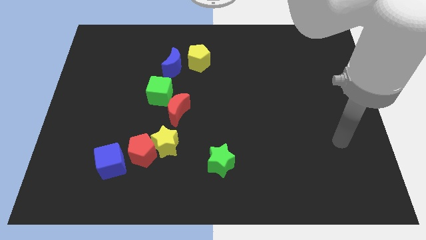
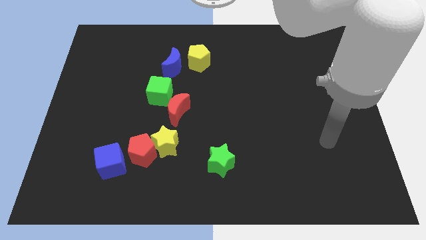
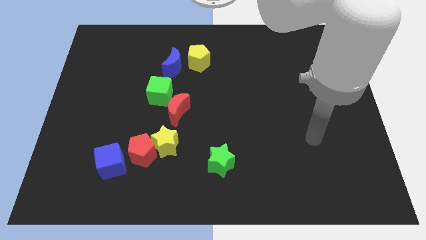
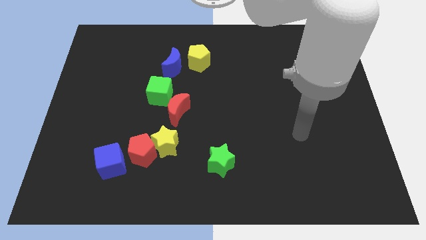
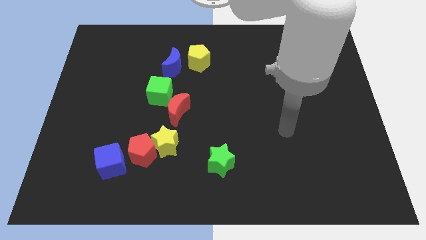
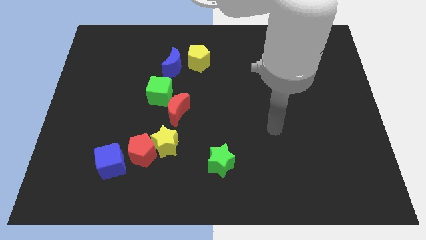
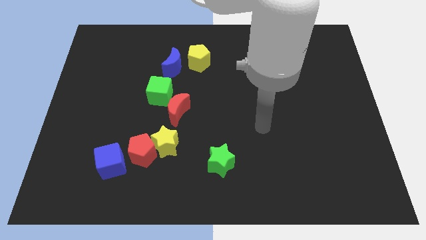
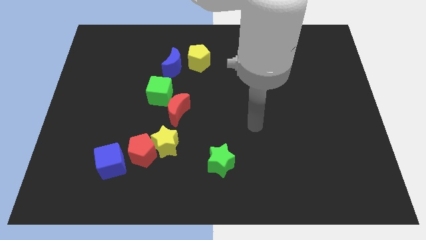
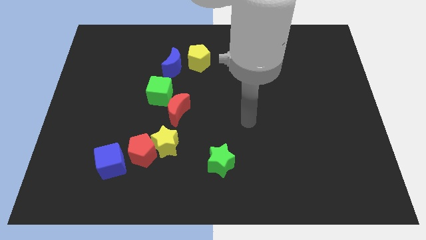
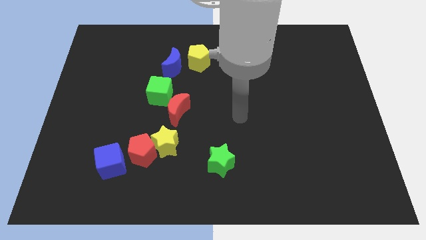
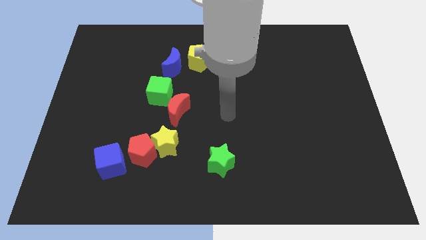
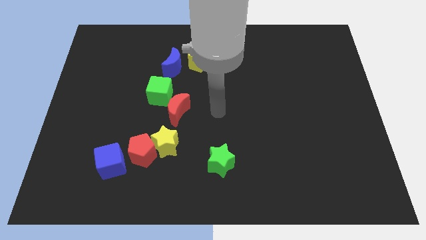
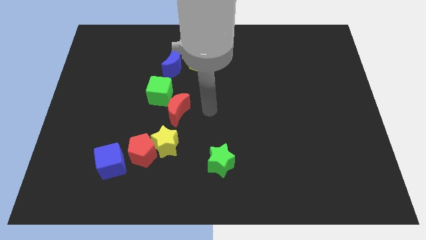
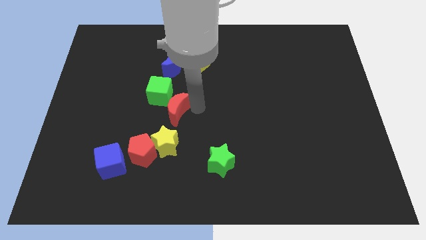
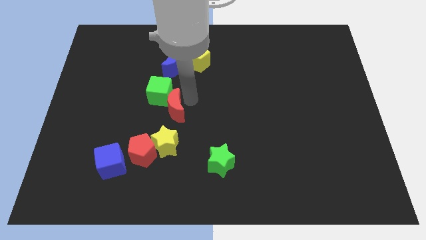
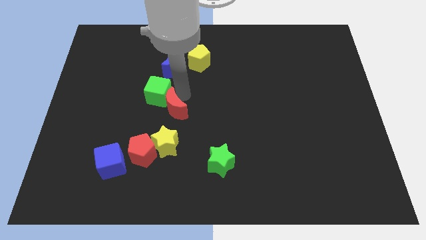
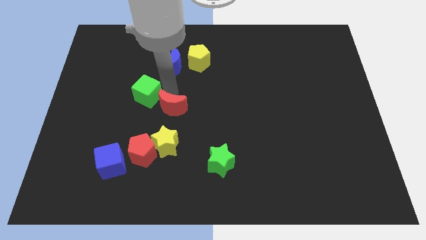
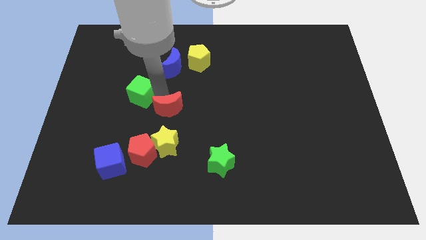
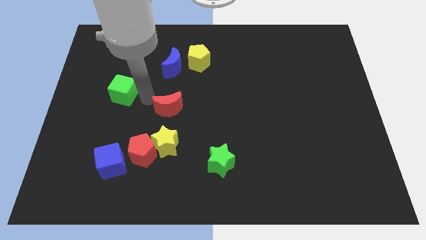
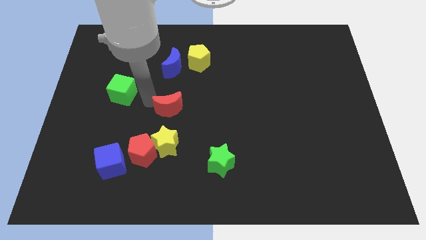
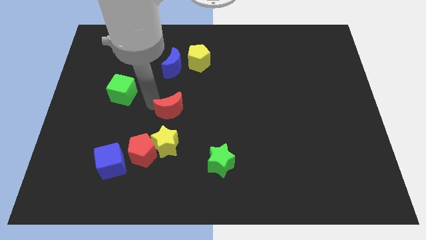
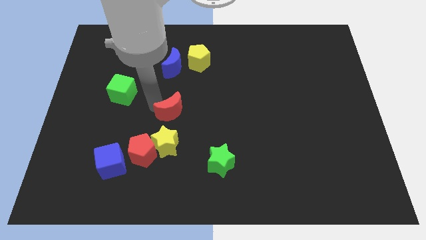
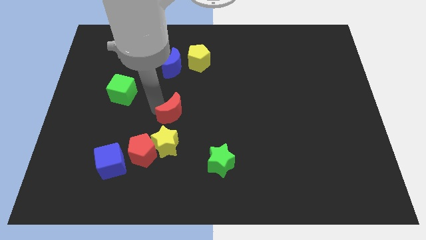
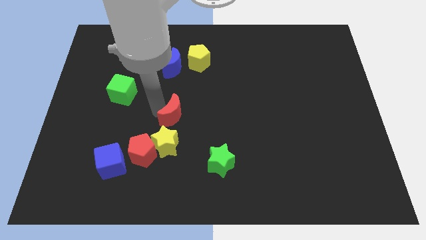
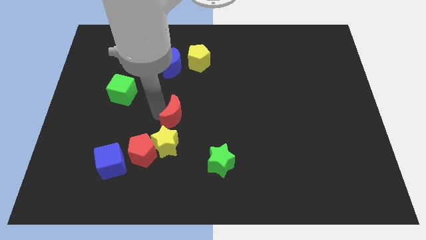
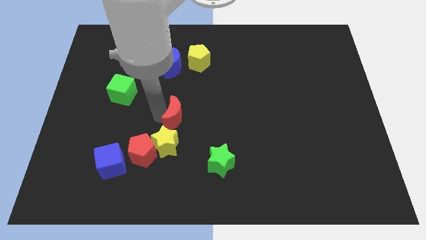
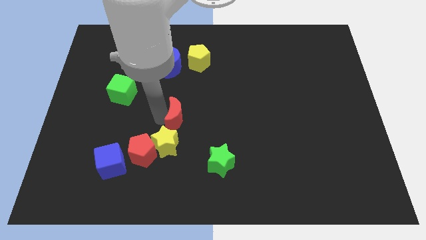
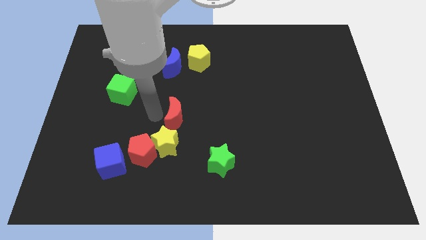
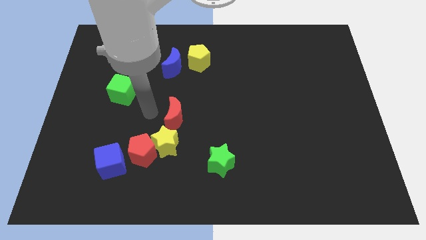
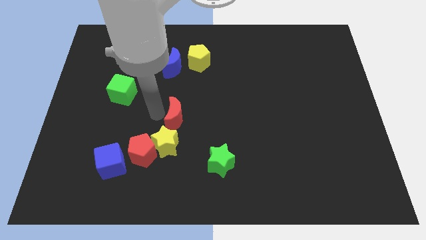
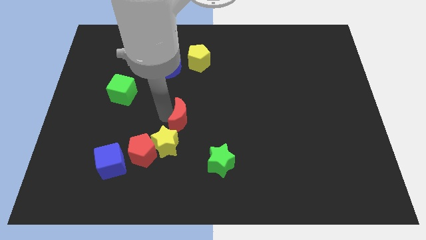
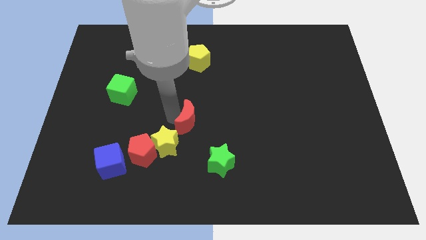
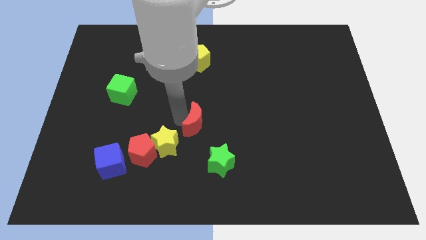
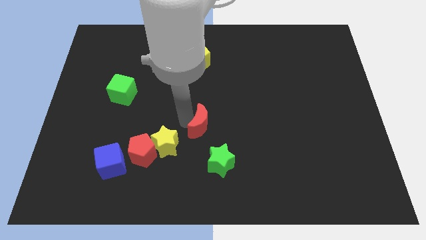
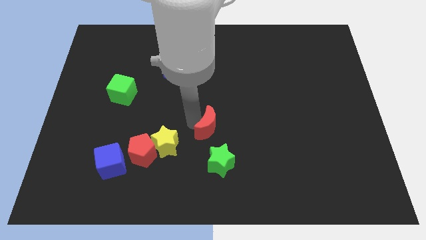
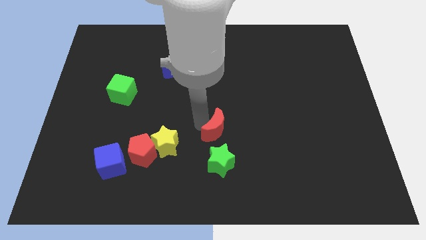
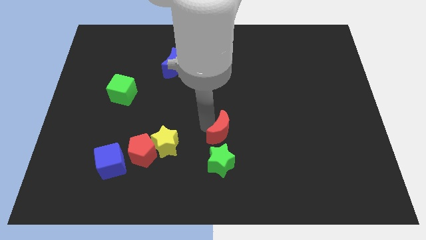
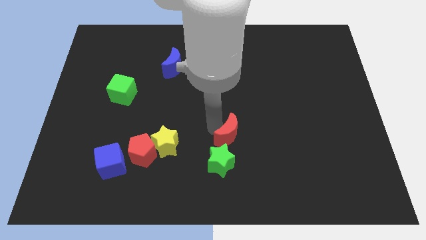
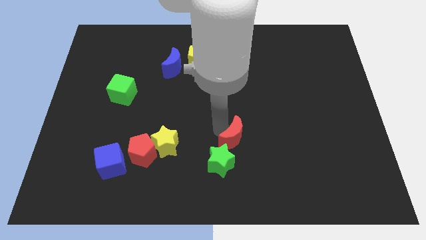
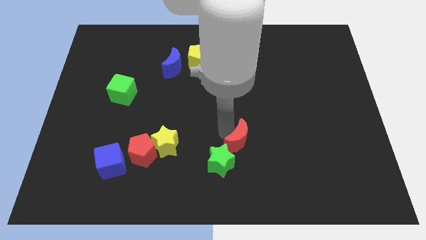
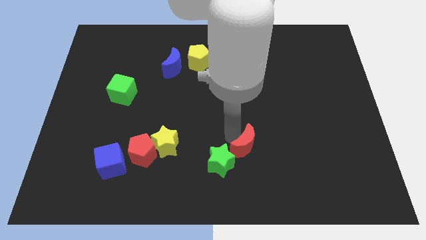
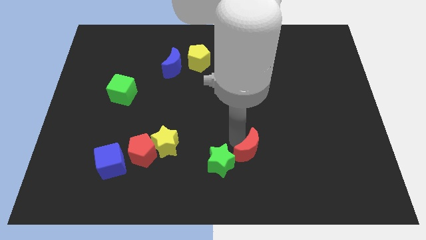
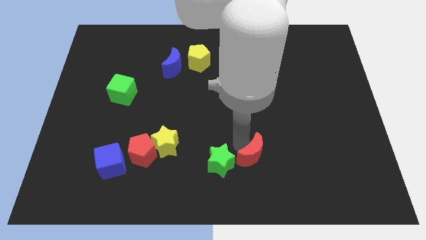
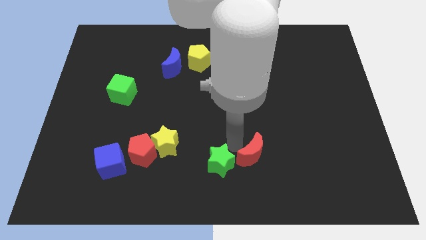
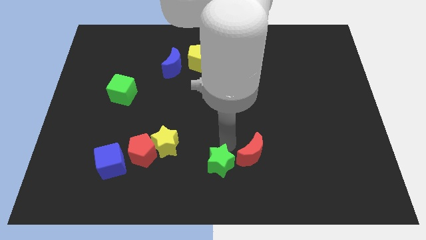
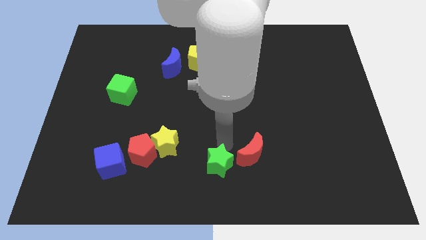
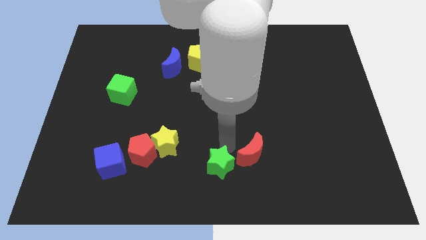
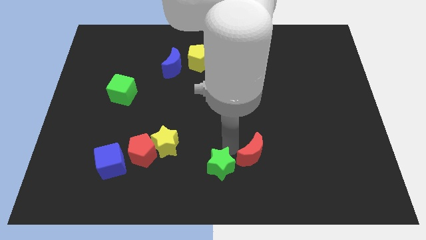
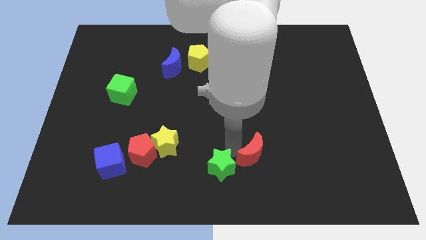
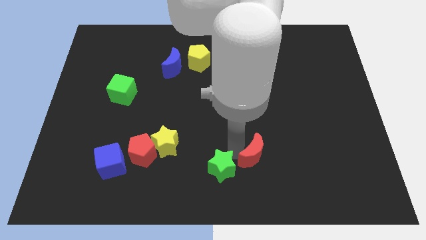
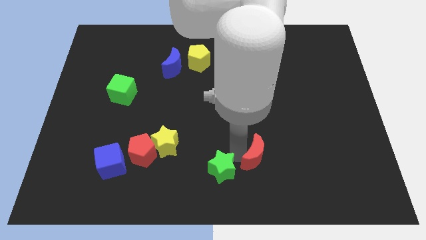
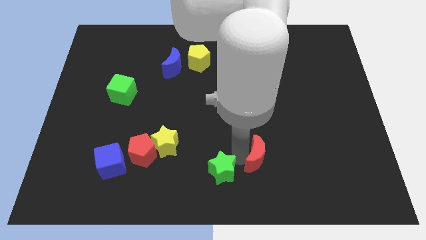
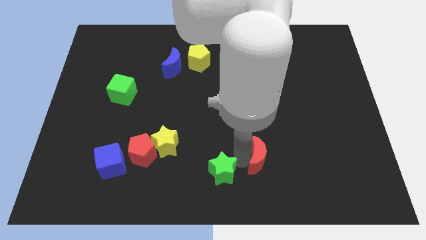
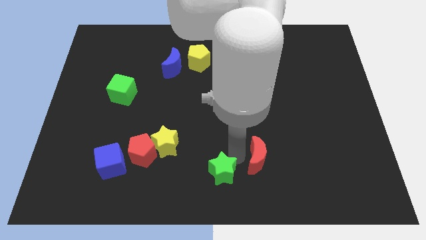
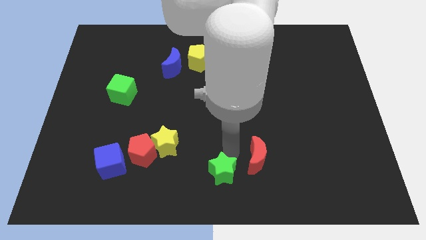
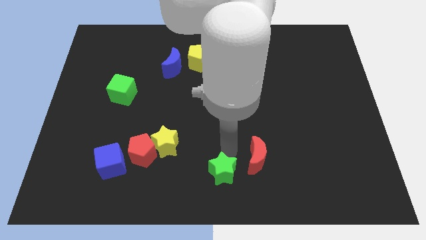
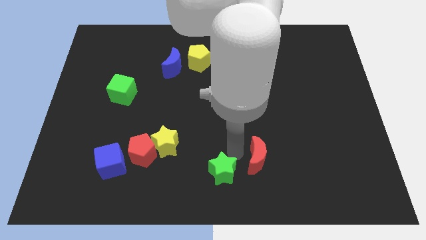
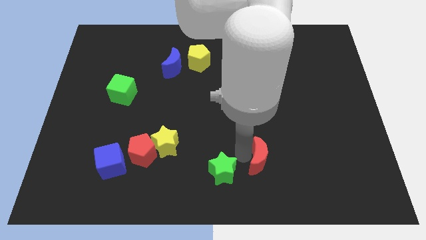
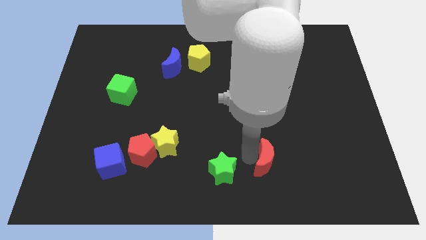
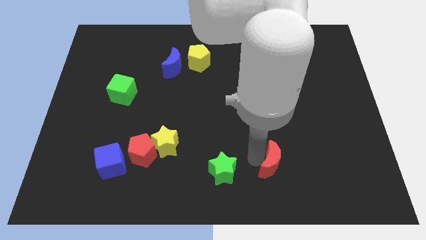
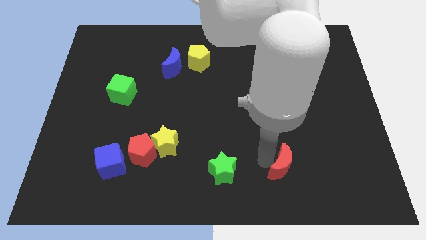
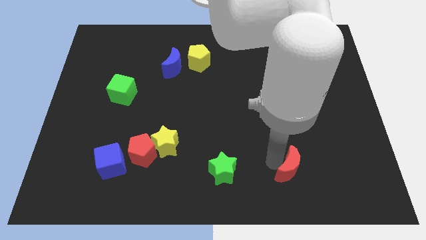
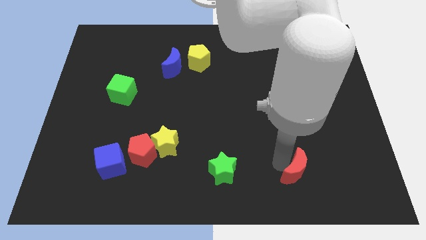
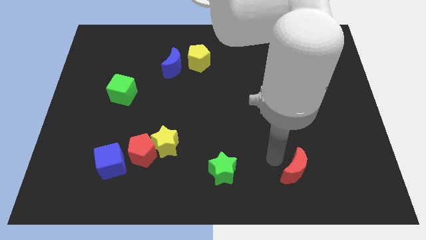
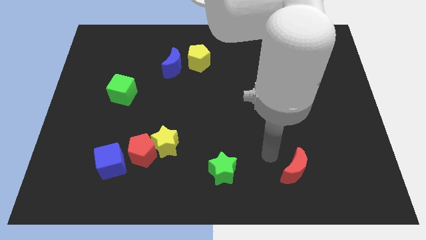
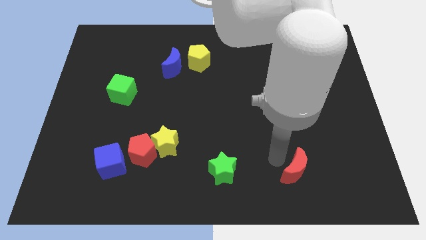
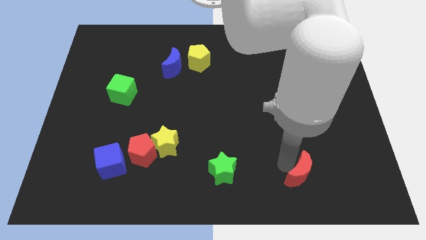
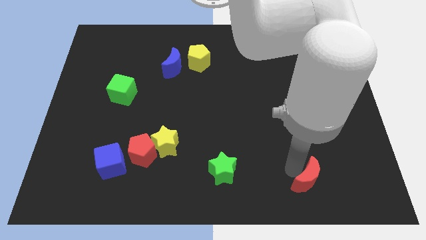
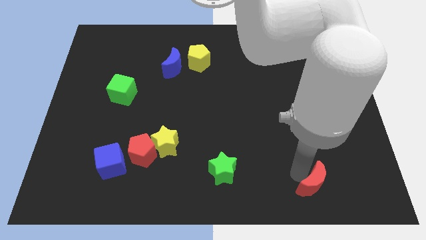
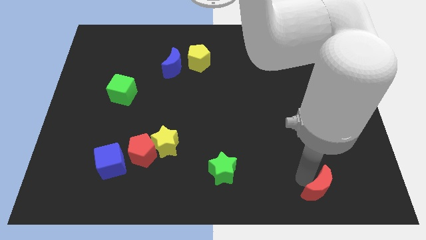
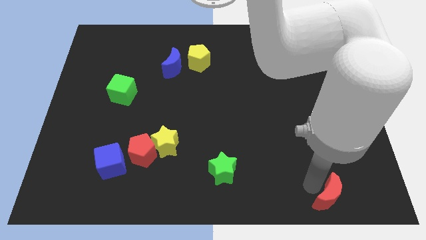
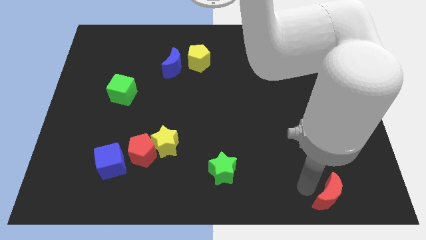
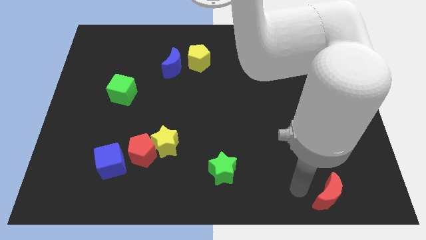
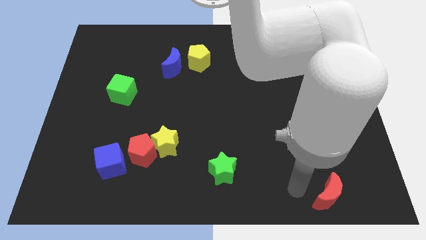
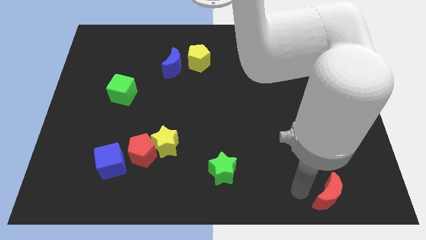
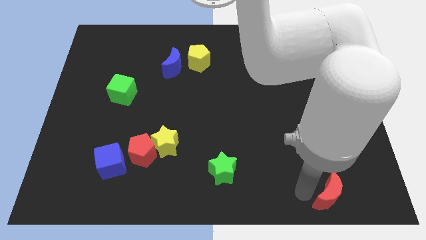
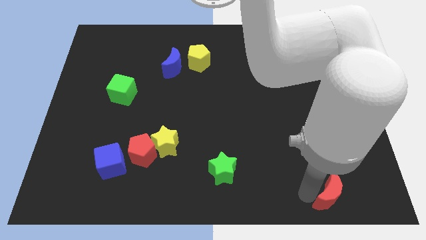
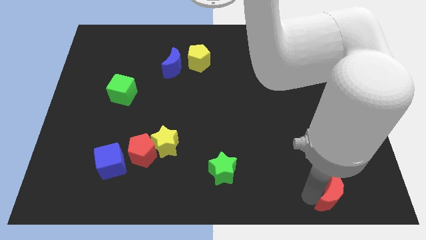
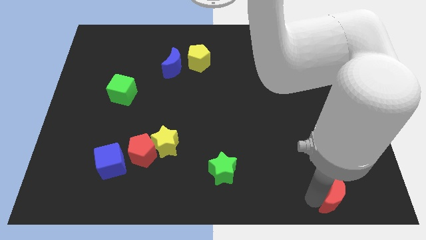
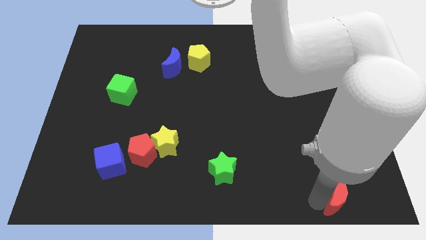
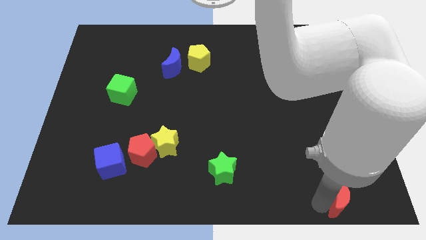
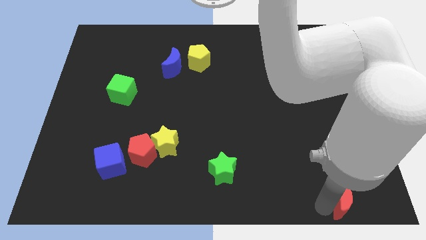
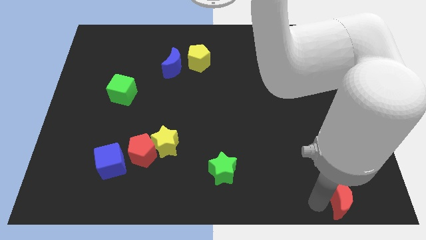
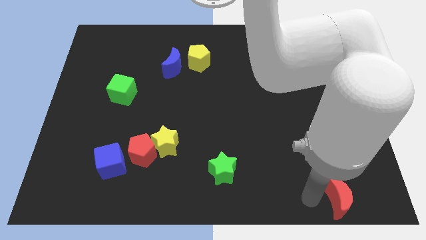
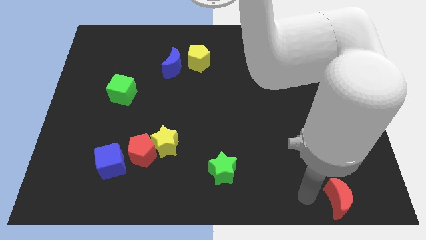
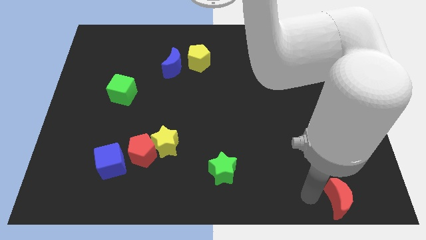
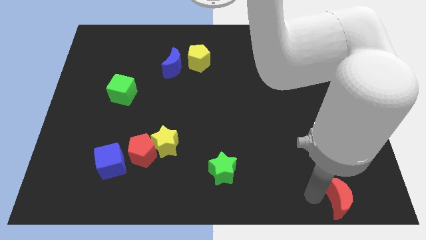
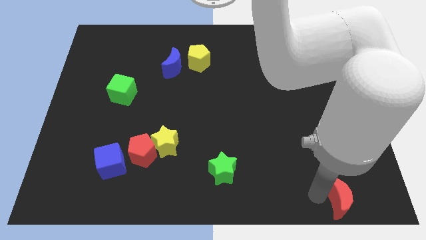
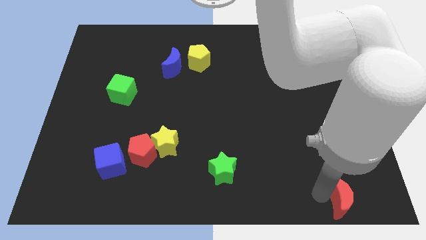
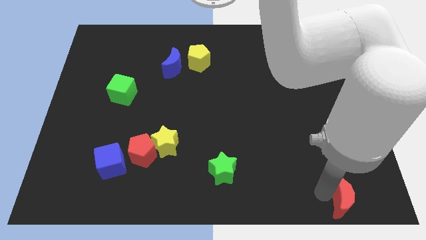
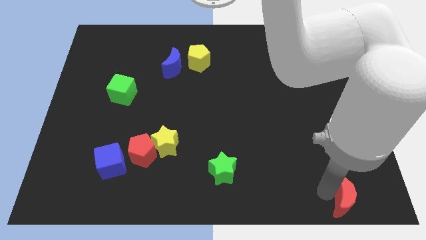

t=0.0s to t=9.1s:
slide the red moon to the bottom right
